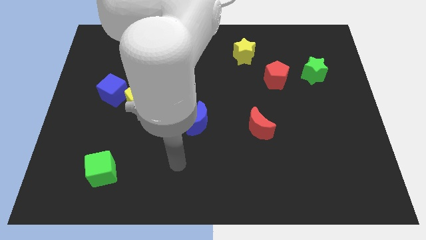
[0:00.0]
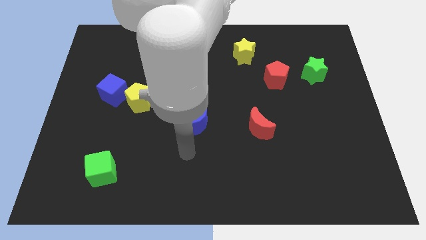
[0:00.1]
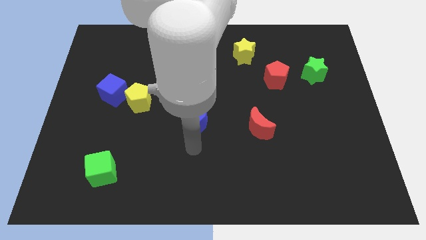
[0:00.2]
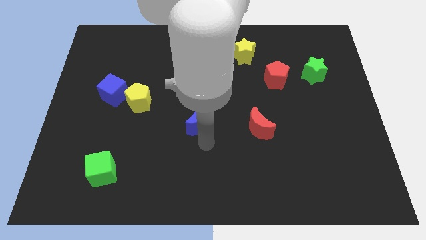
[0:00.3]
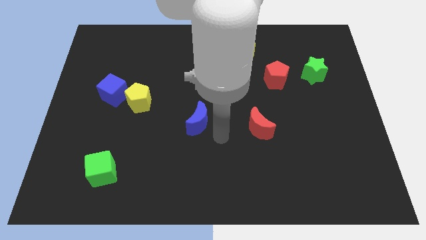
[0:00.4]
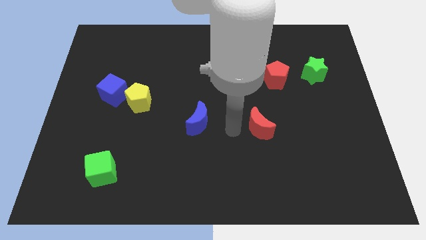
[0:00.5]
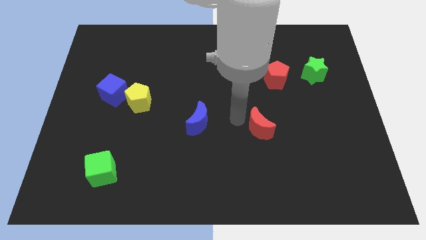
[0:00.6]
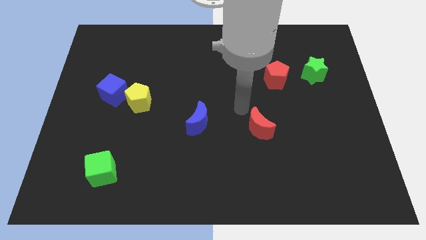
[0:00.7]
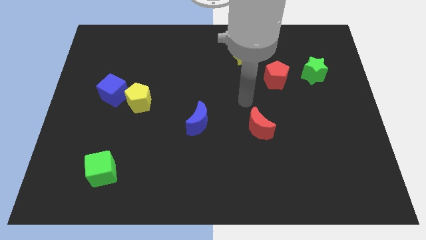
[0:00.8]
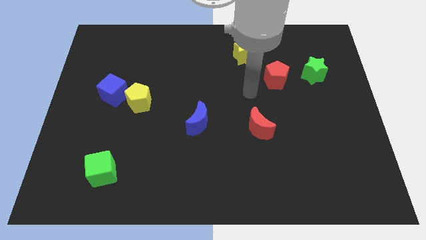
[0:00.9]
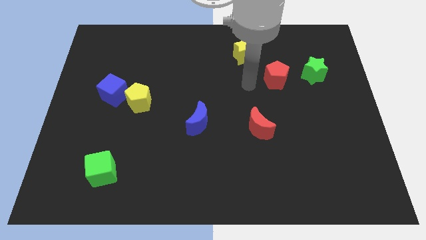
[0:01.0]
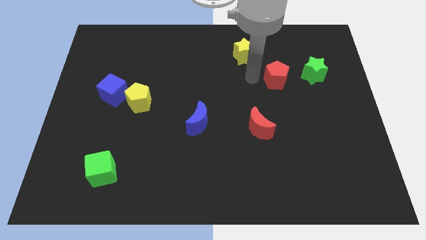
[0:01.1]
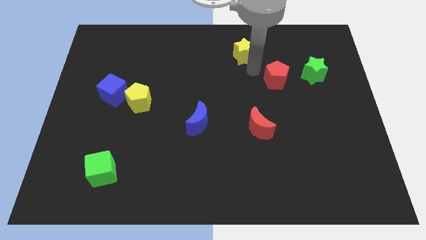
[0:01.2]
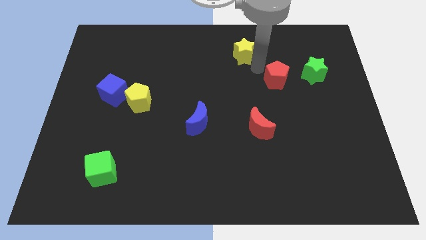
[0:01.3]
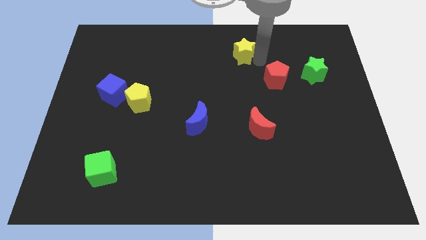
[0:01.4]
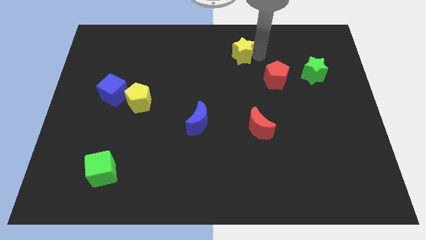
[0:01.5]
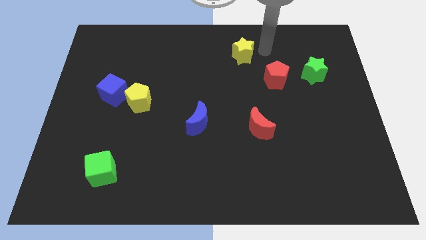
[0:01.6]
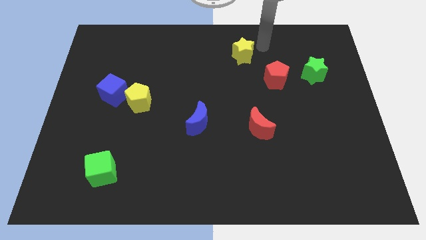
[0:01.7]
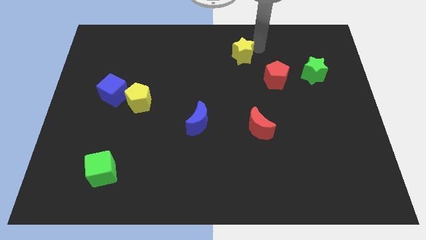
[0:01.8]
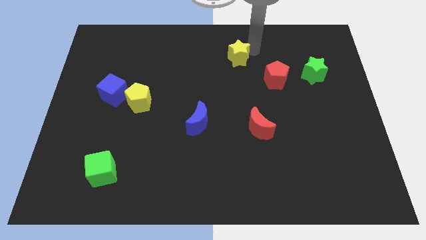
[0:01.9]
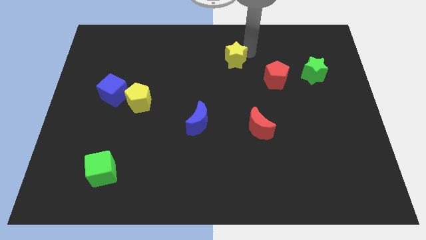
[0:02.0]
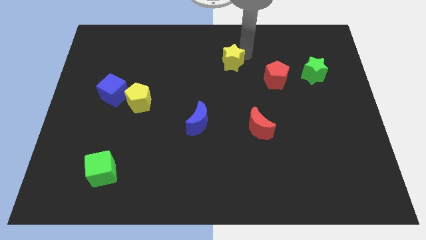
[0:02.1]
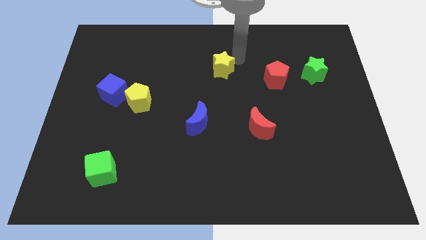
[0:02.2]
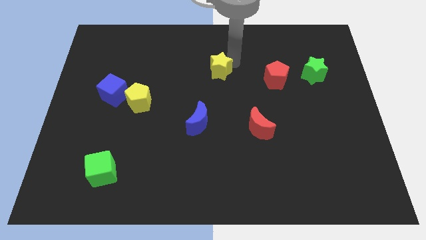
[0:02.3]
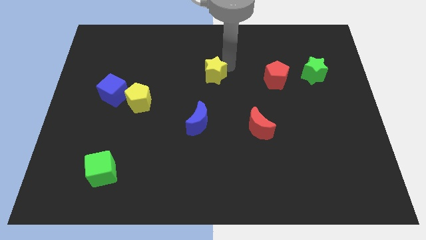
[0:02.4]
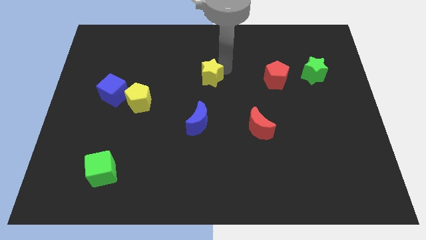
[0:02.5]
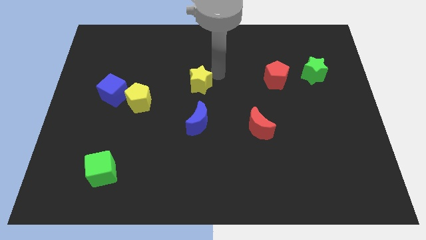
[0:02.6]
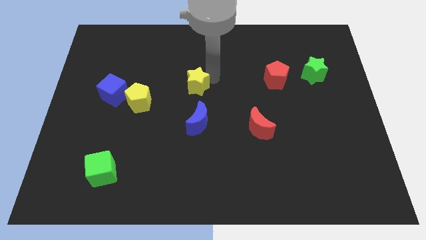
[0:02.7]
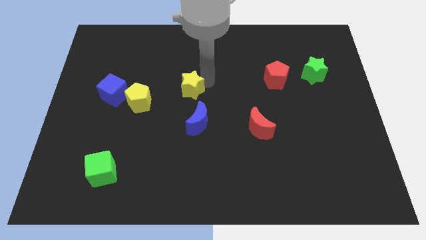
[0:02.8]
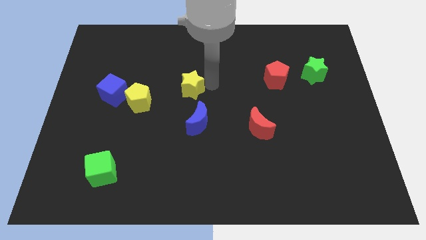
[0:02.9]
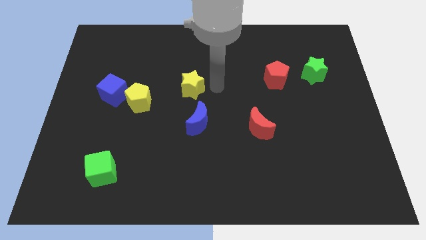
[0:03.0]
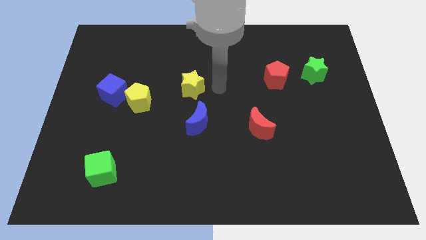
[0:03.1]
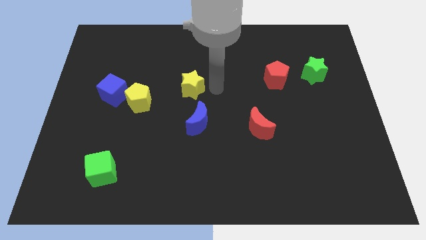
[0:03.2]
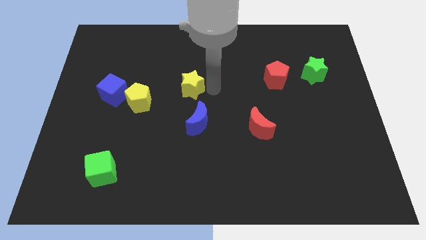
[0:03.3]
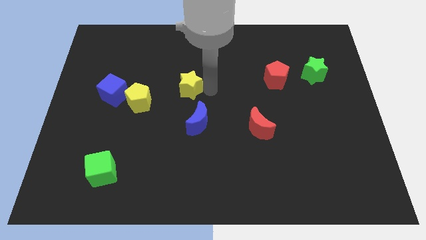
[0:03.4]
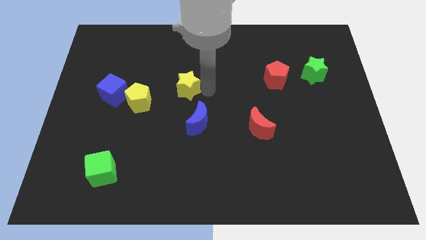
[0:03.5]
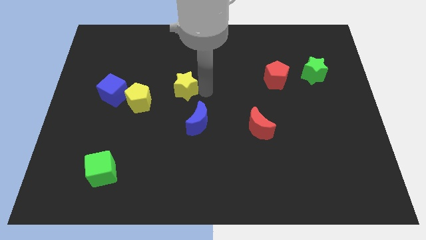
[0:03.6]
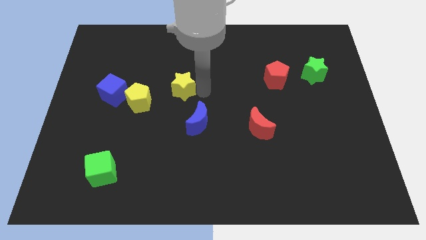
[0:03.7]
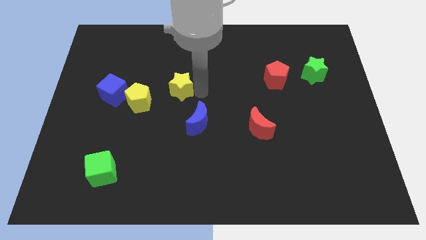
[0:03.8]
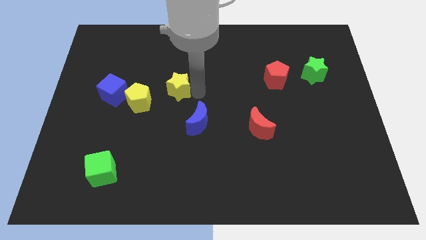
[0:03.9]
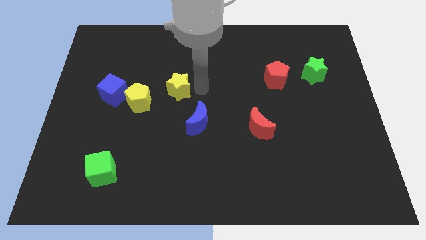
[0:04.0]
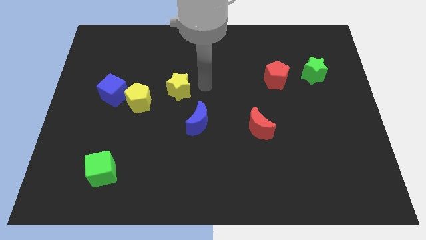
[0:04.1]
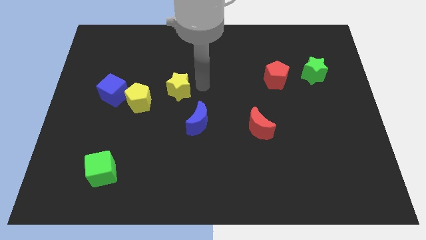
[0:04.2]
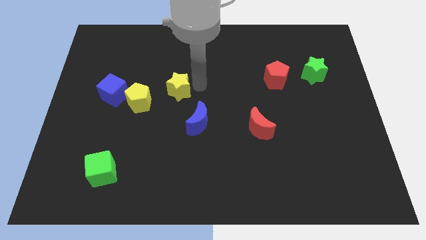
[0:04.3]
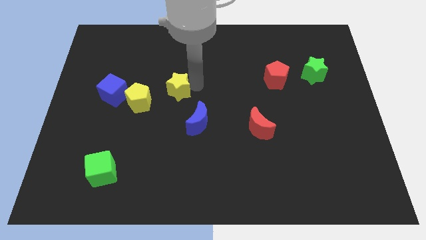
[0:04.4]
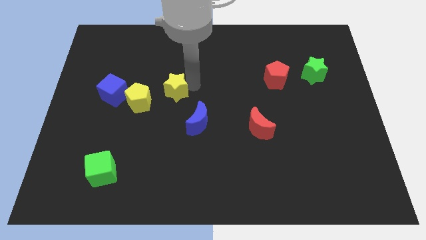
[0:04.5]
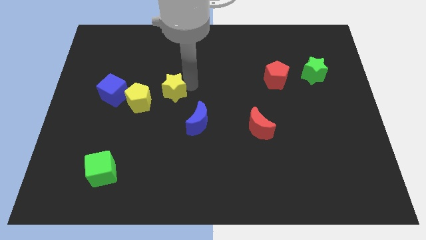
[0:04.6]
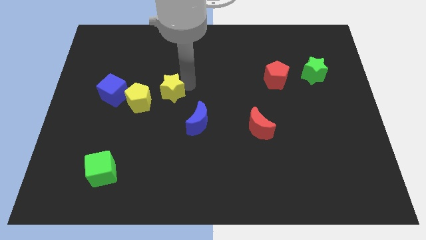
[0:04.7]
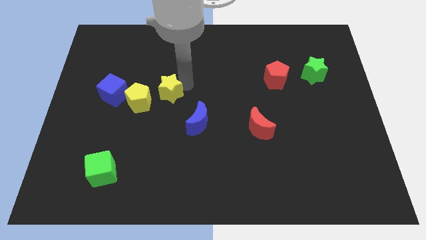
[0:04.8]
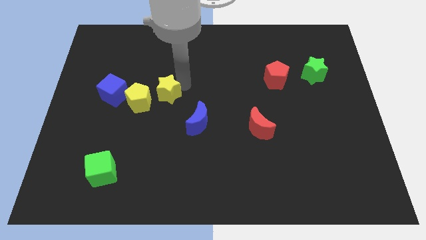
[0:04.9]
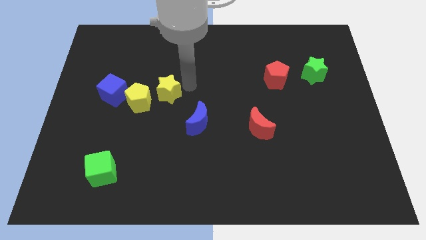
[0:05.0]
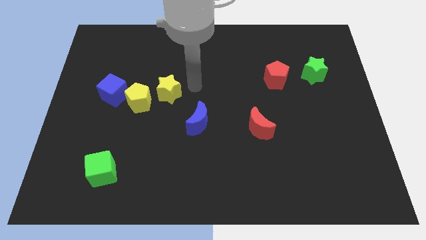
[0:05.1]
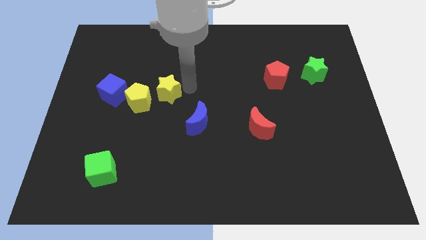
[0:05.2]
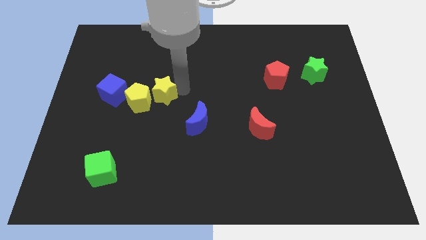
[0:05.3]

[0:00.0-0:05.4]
push the yellow star next to the yellow pentagon

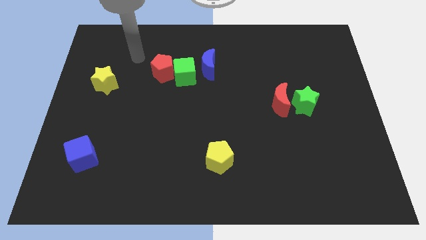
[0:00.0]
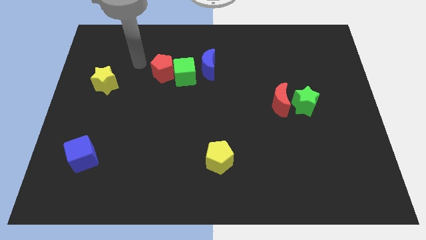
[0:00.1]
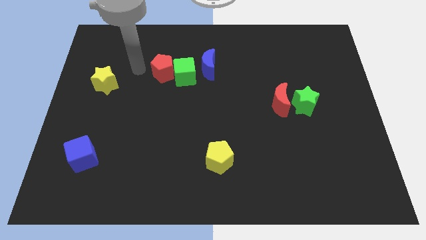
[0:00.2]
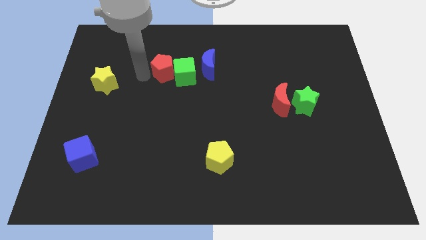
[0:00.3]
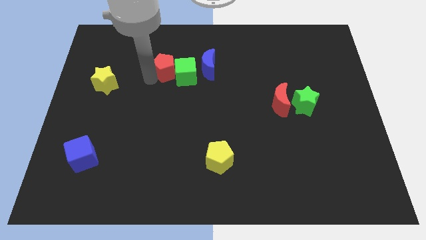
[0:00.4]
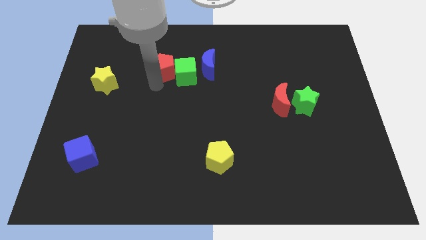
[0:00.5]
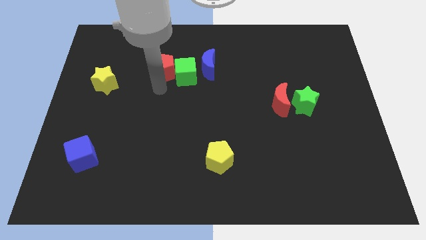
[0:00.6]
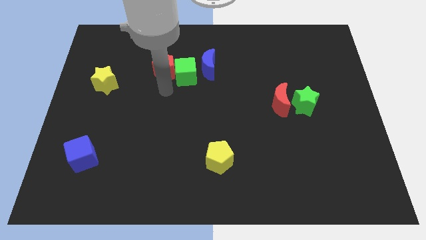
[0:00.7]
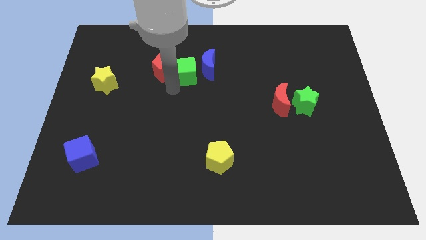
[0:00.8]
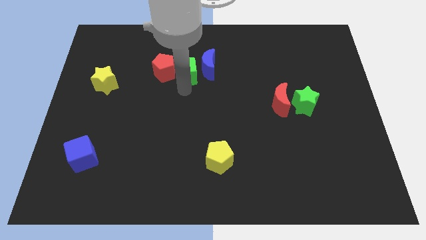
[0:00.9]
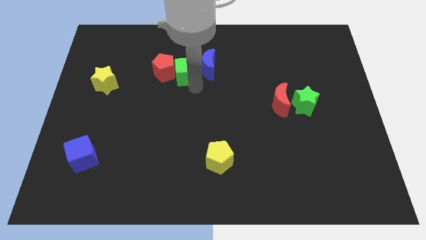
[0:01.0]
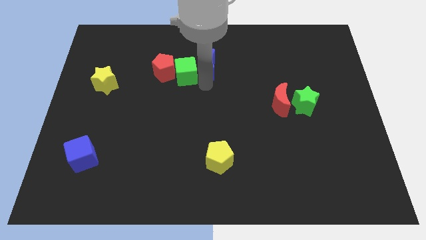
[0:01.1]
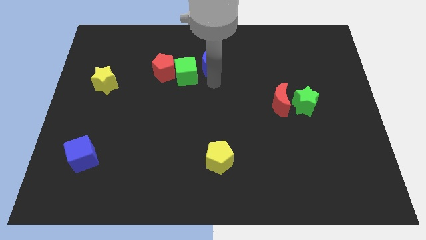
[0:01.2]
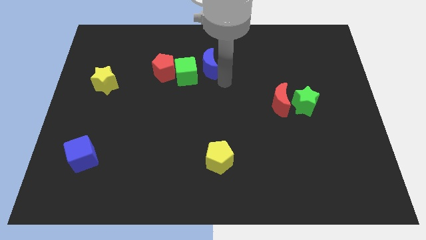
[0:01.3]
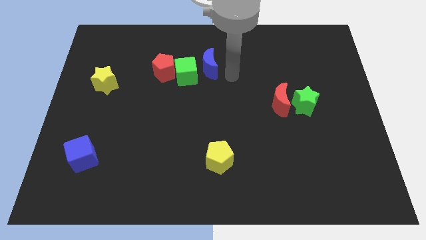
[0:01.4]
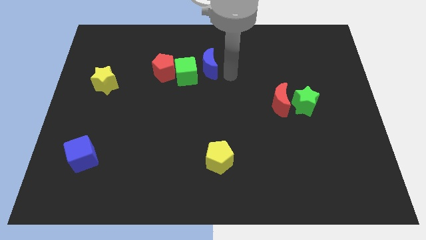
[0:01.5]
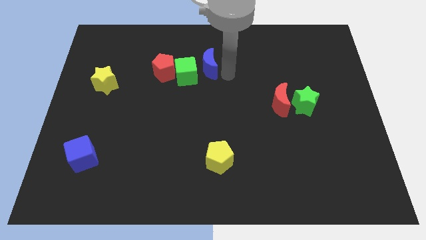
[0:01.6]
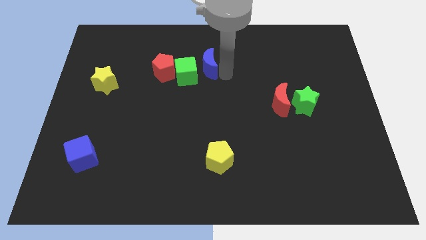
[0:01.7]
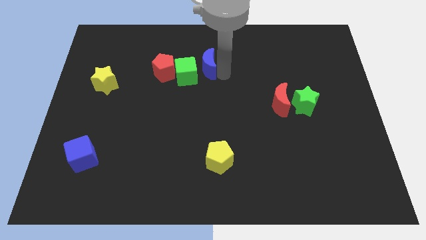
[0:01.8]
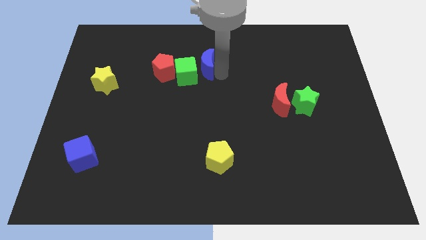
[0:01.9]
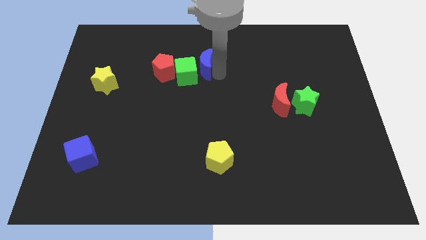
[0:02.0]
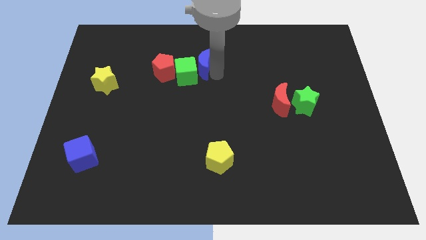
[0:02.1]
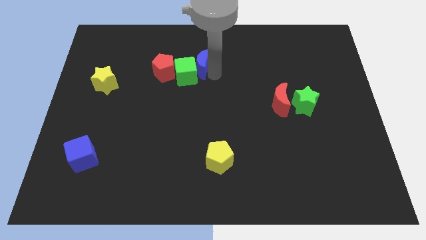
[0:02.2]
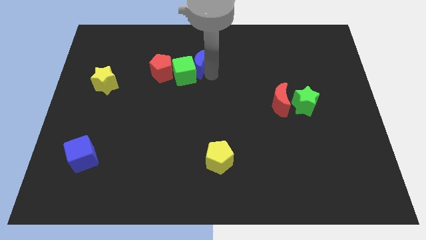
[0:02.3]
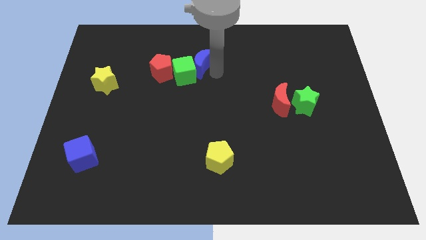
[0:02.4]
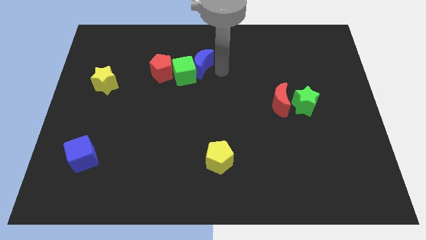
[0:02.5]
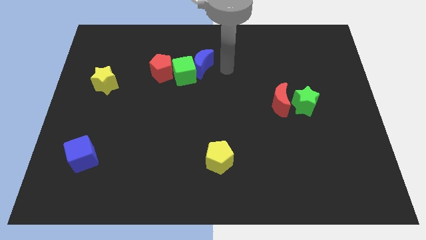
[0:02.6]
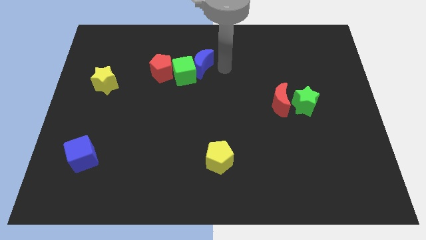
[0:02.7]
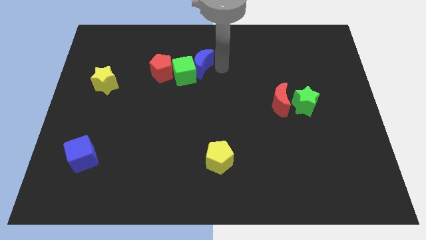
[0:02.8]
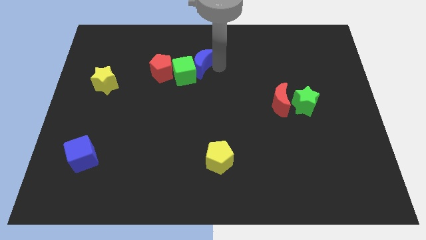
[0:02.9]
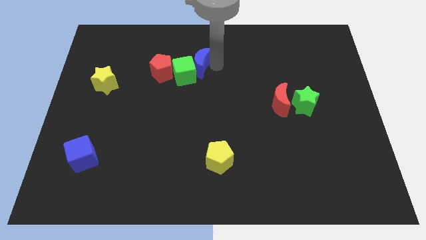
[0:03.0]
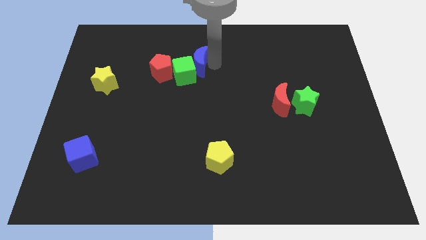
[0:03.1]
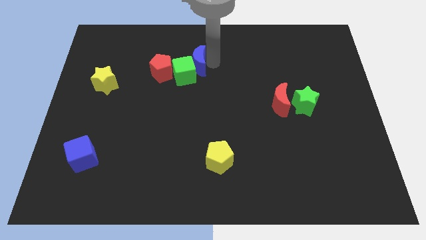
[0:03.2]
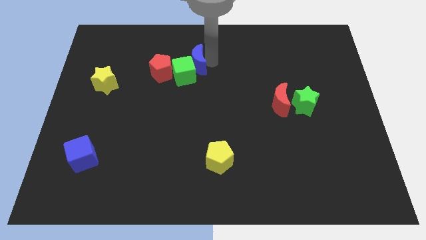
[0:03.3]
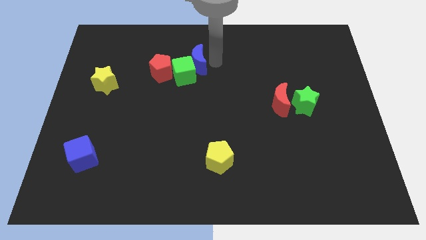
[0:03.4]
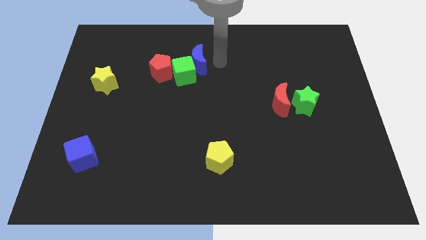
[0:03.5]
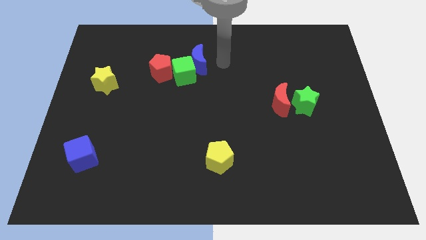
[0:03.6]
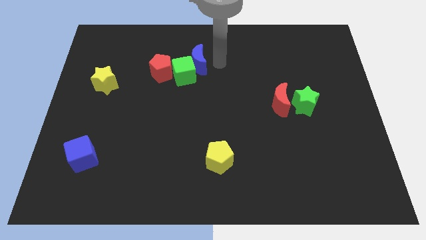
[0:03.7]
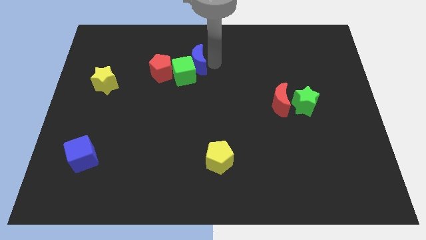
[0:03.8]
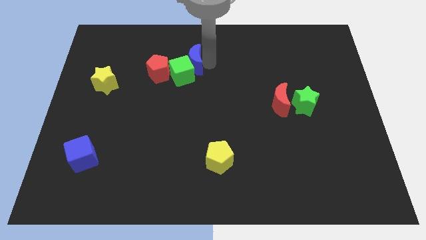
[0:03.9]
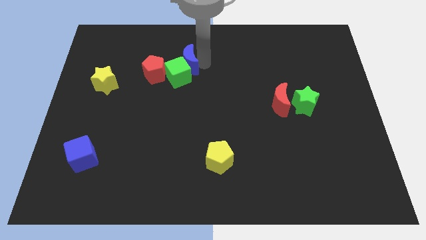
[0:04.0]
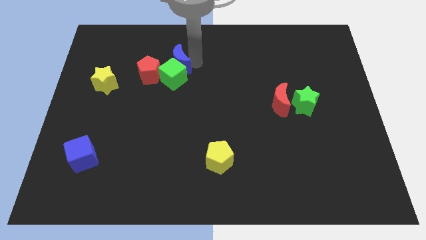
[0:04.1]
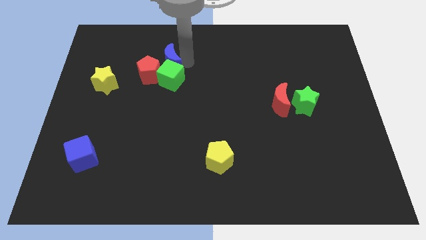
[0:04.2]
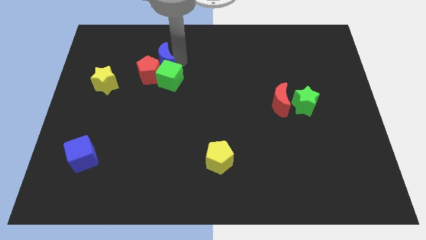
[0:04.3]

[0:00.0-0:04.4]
push the blue moon to the red pentagon
